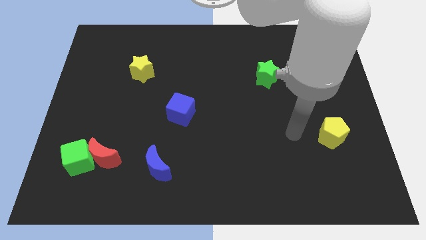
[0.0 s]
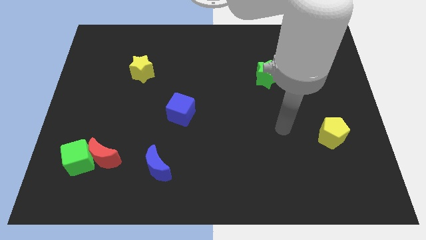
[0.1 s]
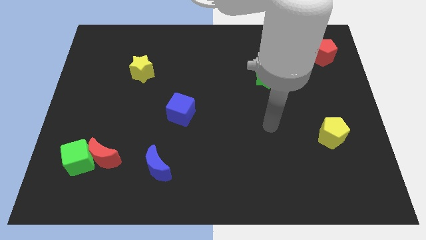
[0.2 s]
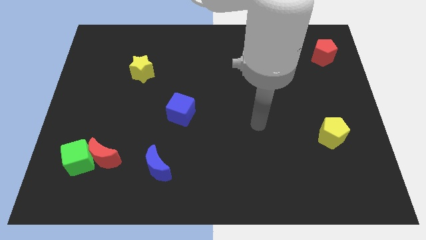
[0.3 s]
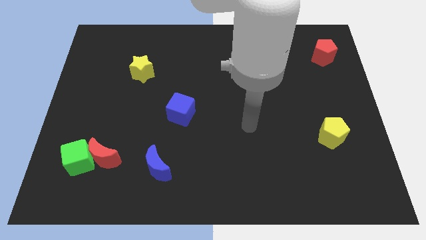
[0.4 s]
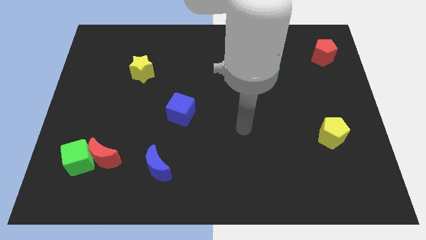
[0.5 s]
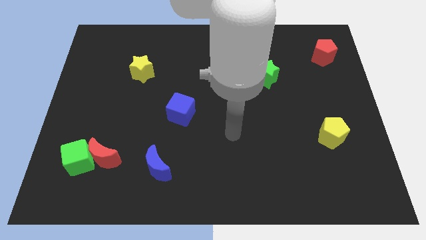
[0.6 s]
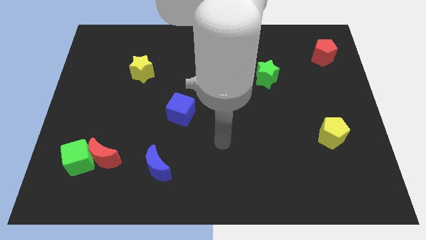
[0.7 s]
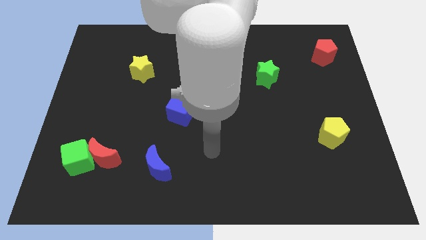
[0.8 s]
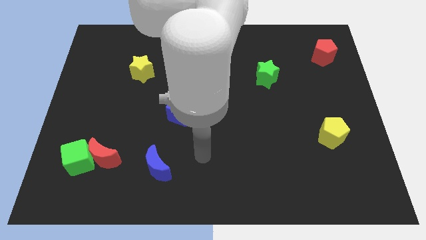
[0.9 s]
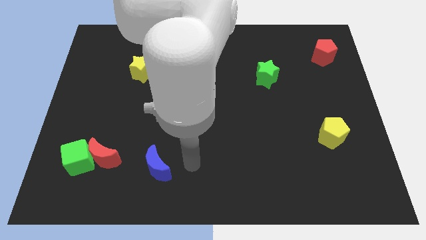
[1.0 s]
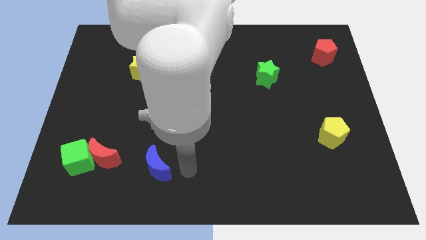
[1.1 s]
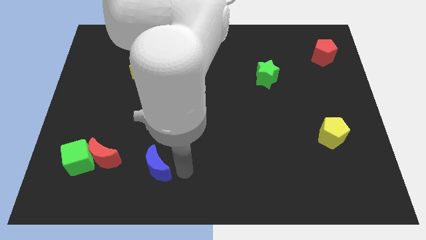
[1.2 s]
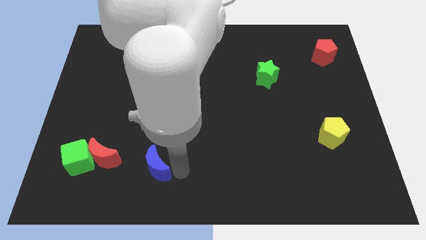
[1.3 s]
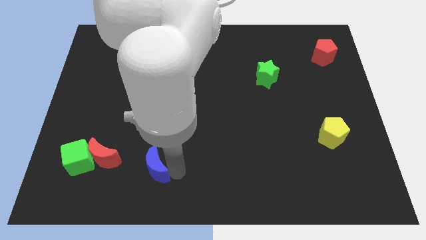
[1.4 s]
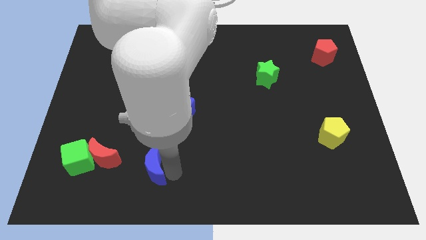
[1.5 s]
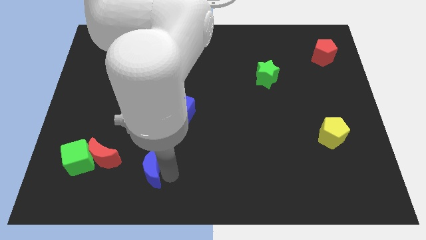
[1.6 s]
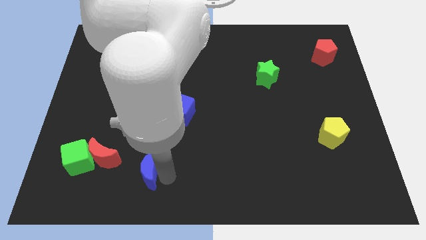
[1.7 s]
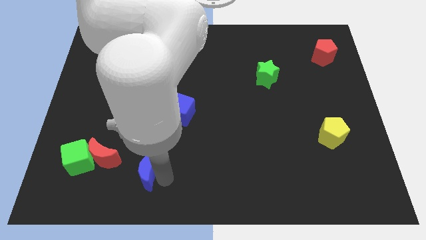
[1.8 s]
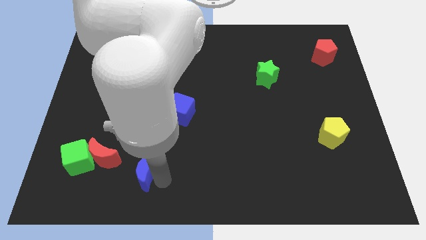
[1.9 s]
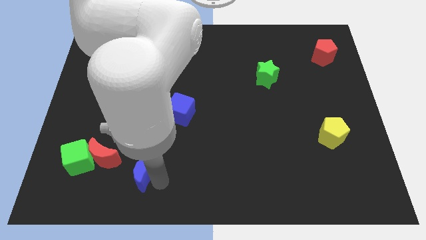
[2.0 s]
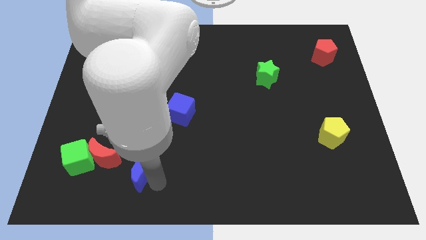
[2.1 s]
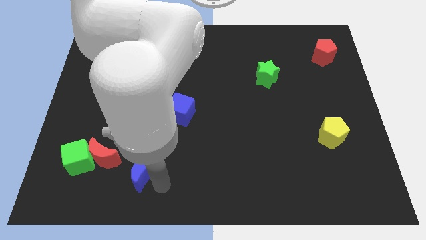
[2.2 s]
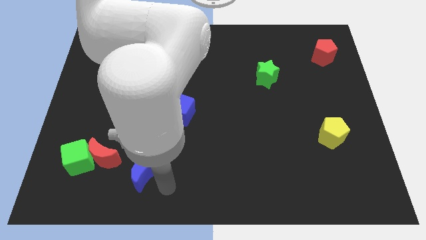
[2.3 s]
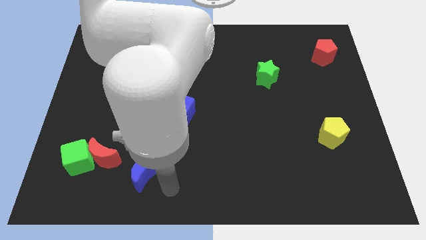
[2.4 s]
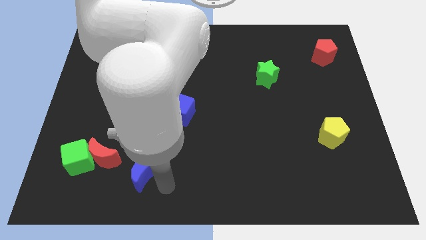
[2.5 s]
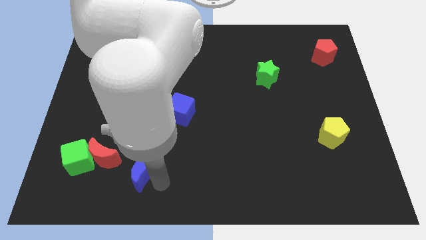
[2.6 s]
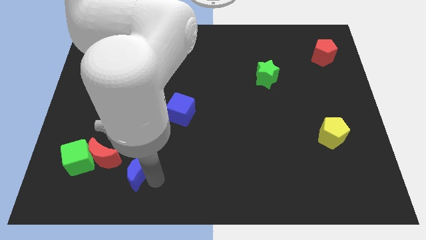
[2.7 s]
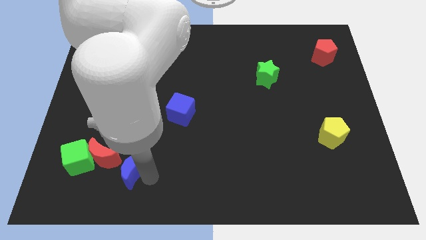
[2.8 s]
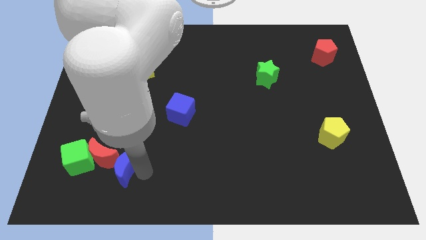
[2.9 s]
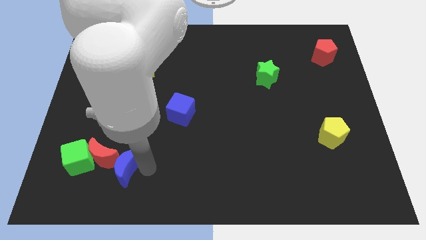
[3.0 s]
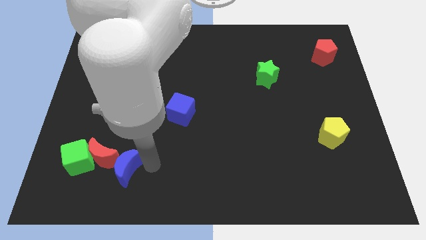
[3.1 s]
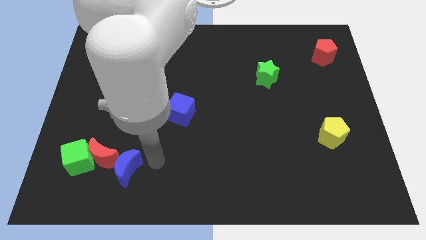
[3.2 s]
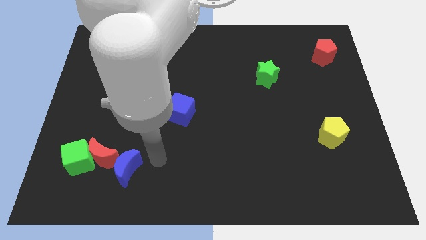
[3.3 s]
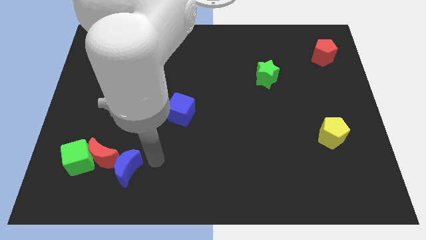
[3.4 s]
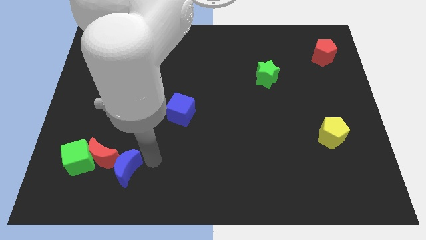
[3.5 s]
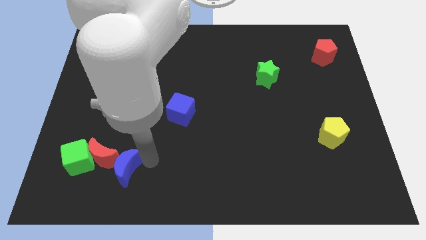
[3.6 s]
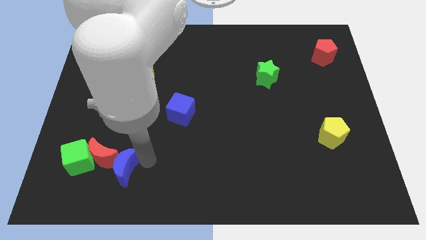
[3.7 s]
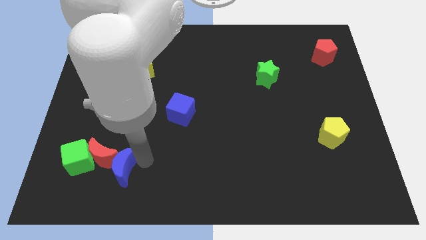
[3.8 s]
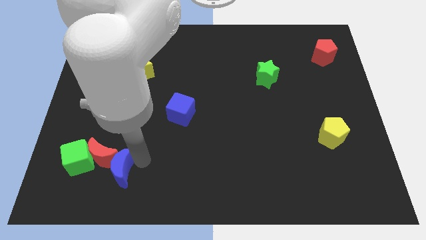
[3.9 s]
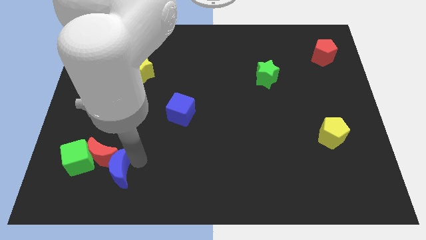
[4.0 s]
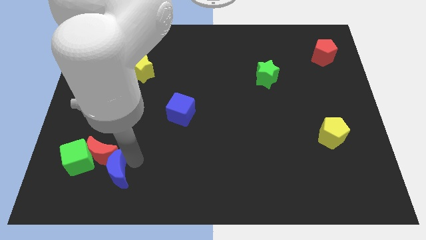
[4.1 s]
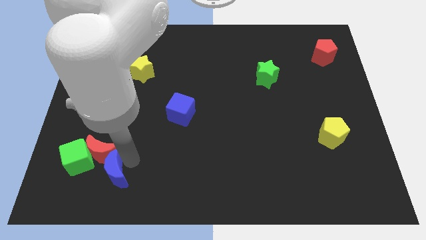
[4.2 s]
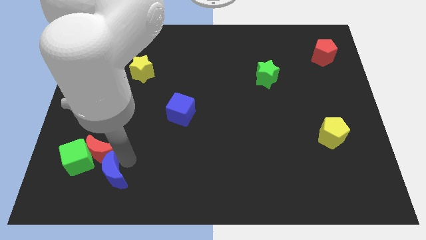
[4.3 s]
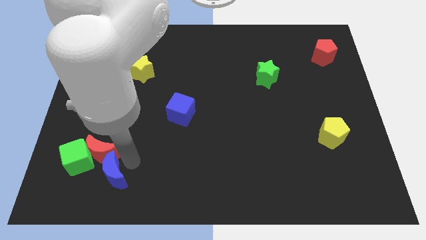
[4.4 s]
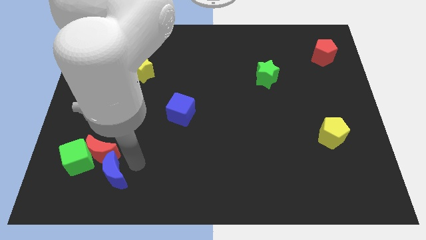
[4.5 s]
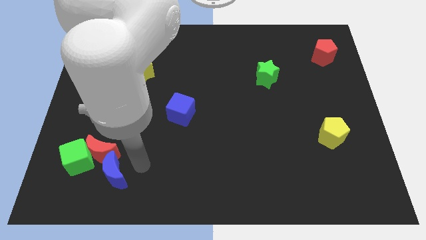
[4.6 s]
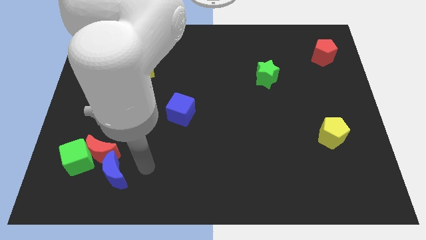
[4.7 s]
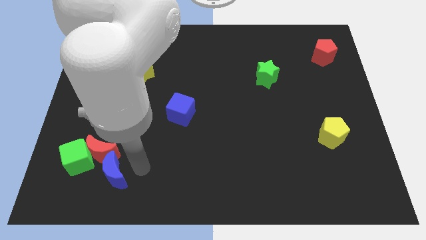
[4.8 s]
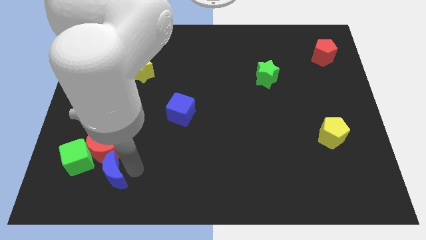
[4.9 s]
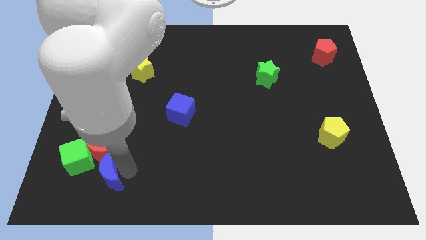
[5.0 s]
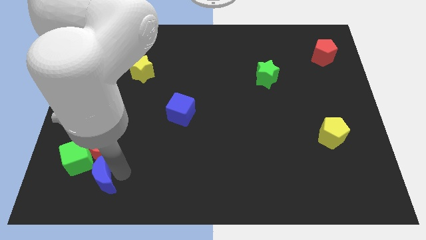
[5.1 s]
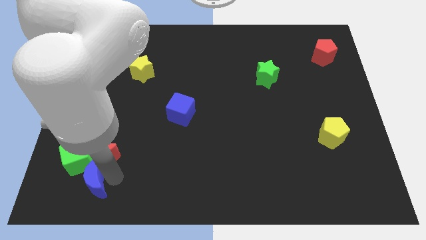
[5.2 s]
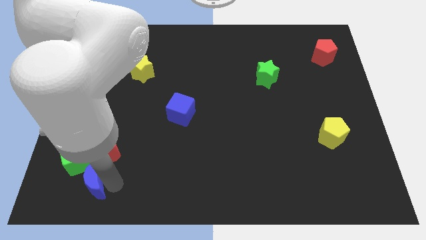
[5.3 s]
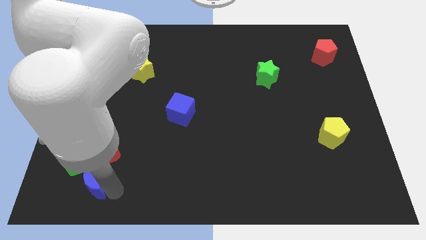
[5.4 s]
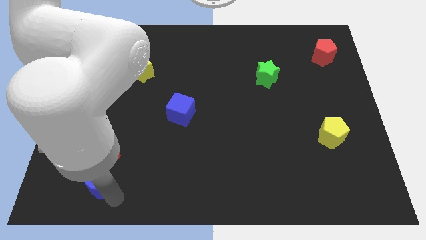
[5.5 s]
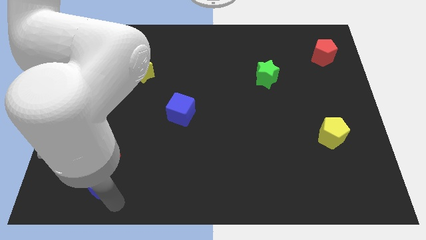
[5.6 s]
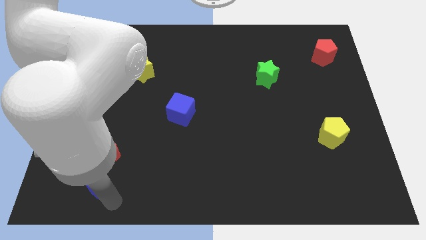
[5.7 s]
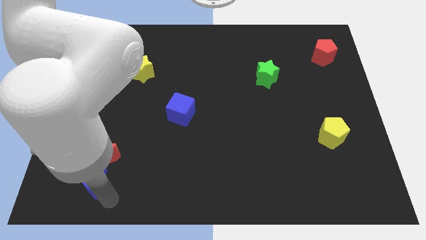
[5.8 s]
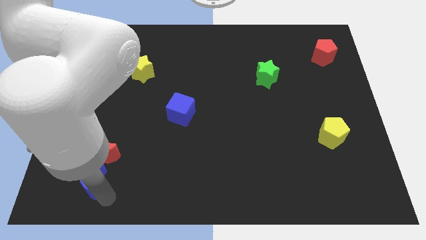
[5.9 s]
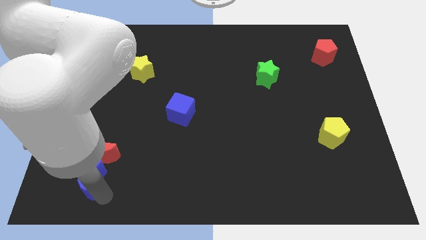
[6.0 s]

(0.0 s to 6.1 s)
slide the blue moon close to the green cube

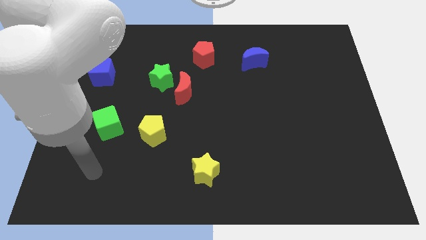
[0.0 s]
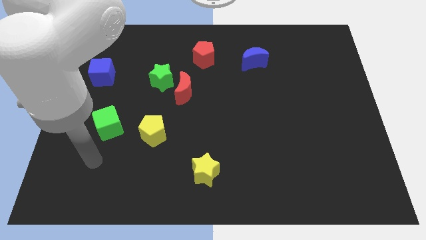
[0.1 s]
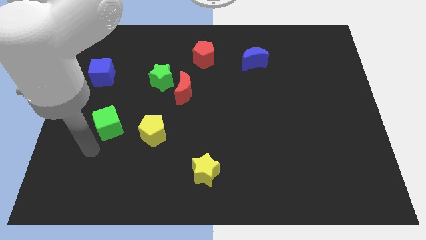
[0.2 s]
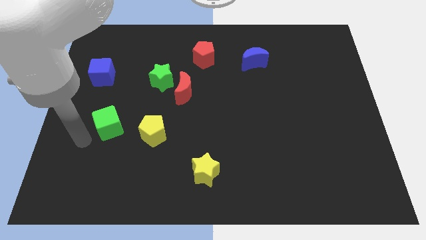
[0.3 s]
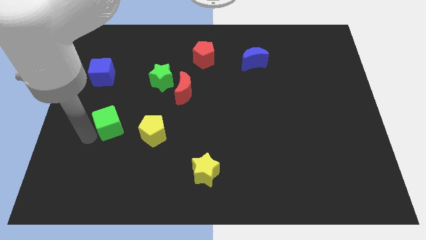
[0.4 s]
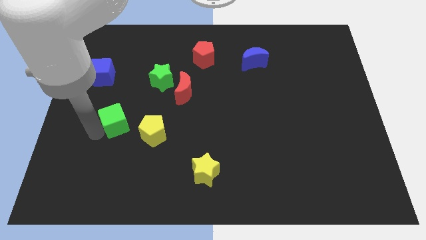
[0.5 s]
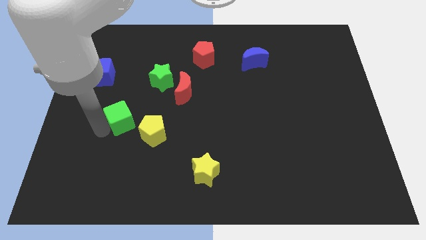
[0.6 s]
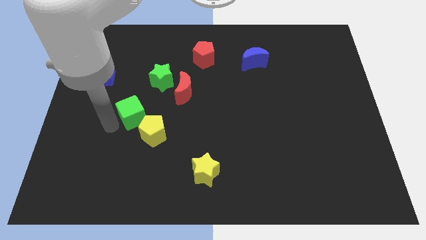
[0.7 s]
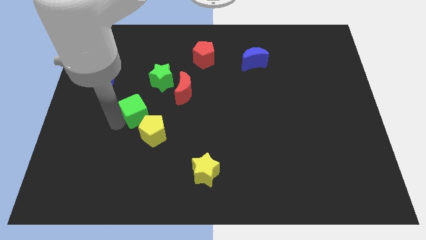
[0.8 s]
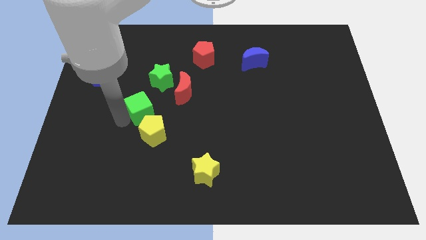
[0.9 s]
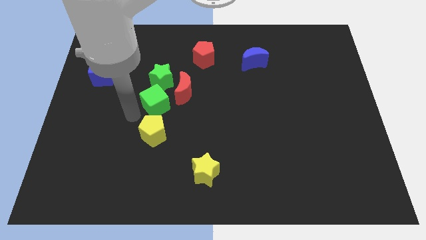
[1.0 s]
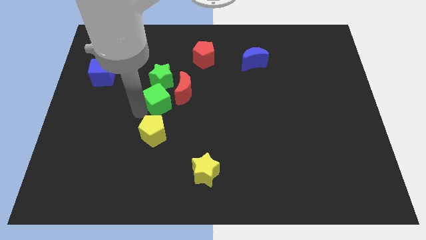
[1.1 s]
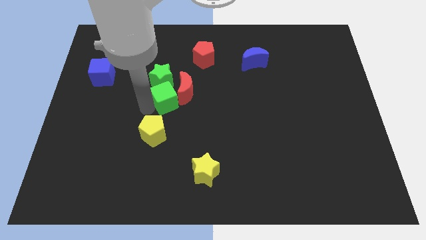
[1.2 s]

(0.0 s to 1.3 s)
slide the green cube next to the red moon
